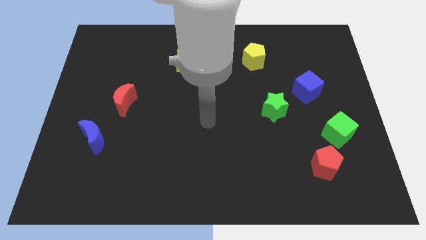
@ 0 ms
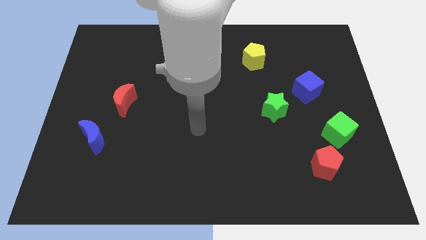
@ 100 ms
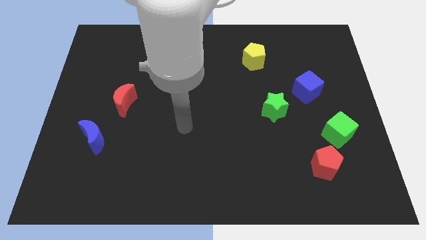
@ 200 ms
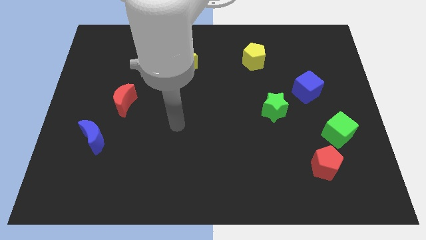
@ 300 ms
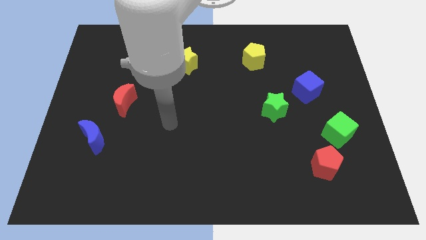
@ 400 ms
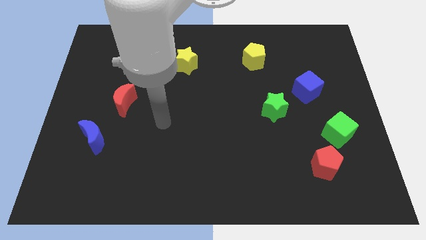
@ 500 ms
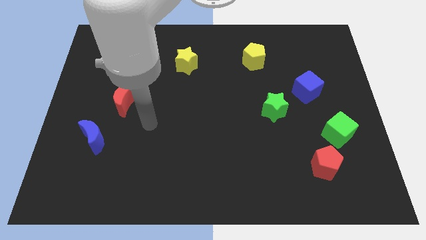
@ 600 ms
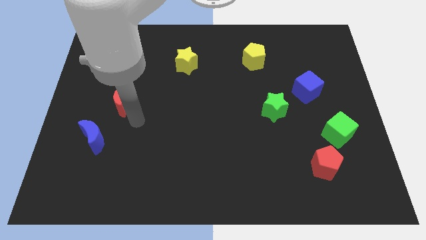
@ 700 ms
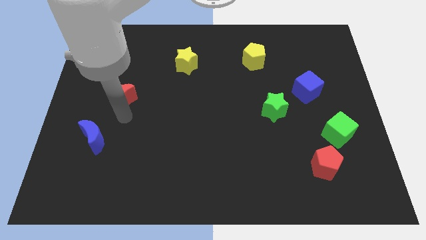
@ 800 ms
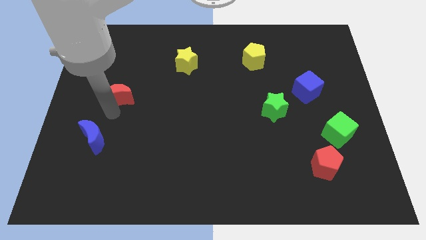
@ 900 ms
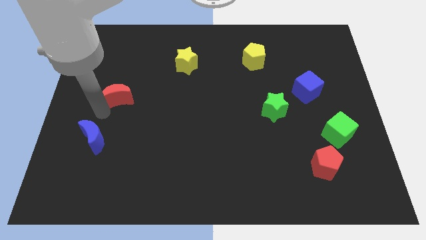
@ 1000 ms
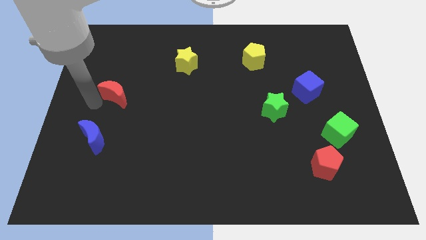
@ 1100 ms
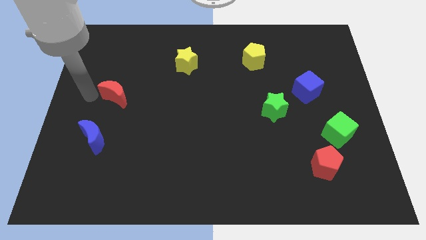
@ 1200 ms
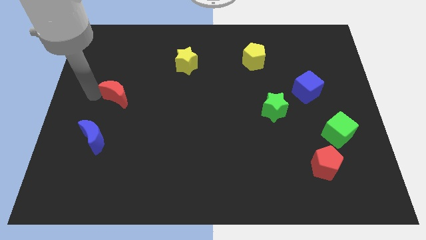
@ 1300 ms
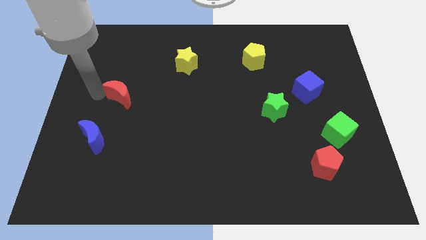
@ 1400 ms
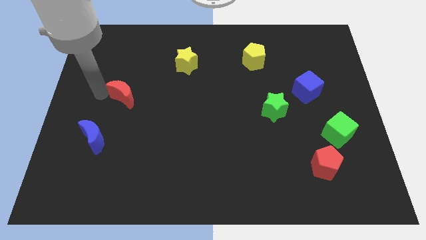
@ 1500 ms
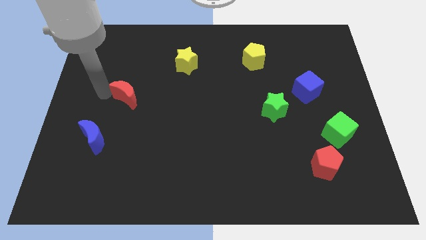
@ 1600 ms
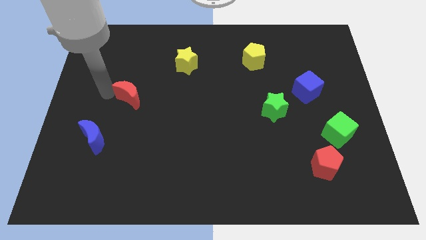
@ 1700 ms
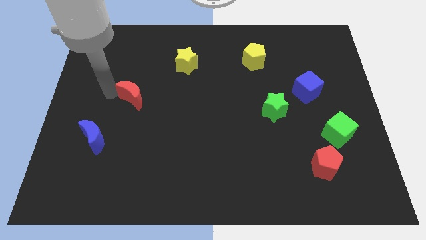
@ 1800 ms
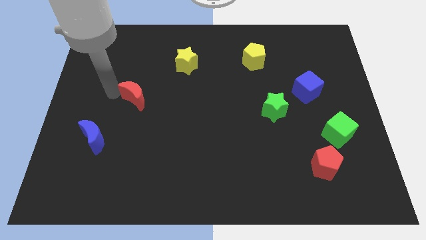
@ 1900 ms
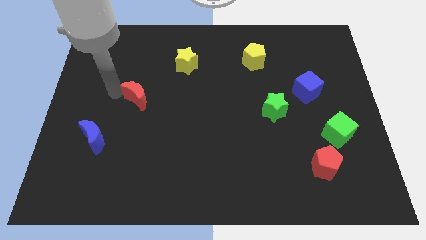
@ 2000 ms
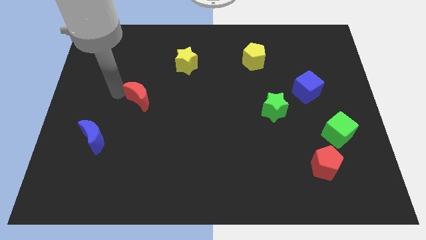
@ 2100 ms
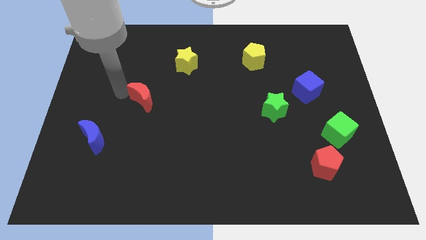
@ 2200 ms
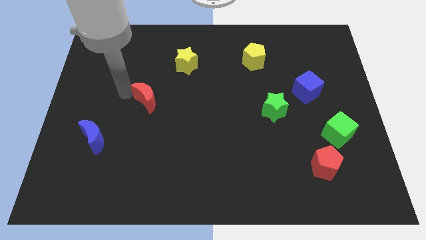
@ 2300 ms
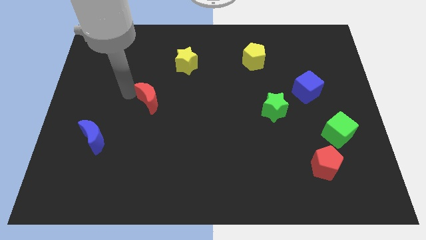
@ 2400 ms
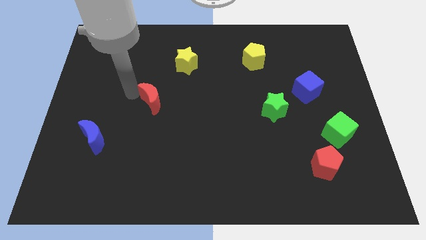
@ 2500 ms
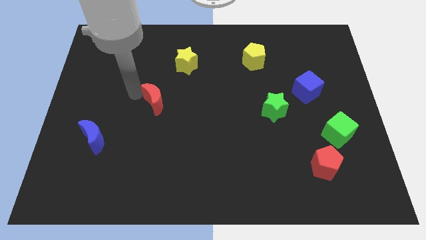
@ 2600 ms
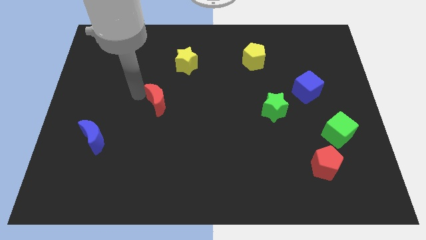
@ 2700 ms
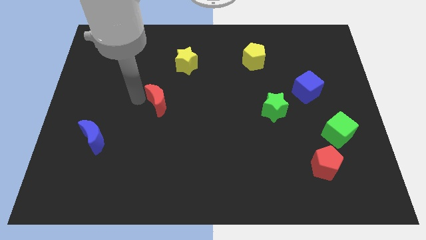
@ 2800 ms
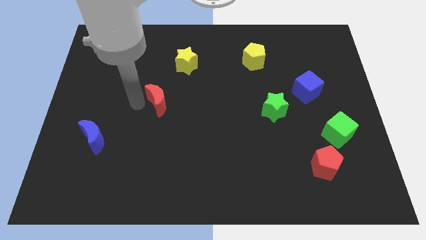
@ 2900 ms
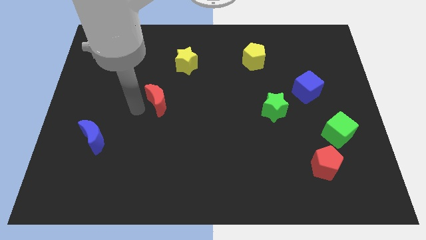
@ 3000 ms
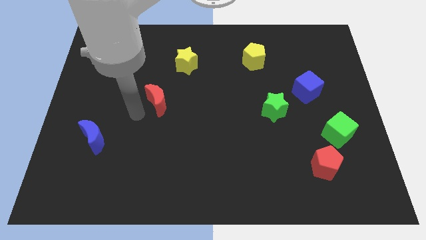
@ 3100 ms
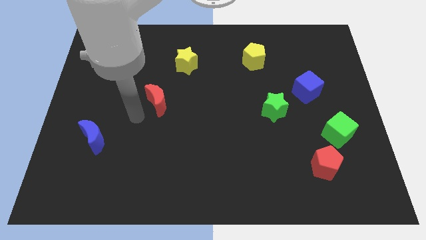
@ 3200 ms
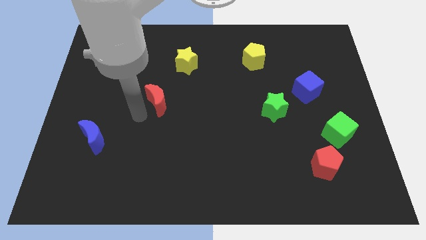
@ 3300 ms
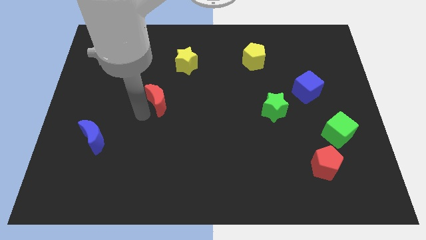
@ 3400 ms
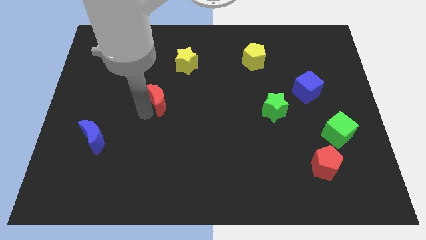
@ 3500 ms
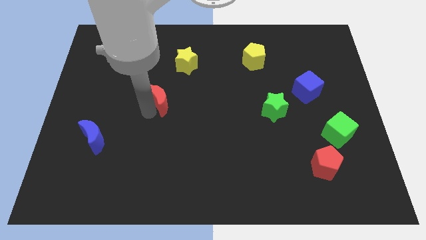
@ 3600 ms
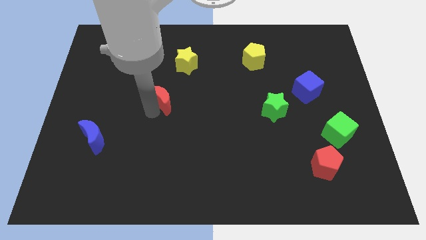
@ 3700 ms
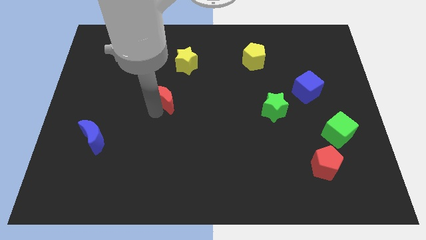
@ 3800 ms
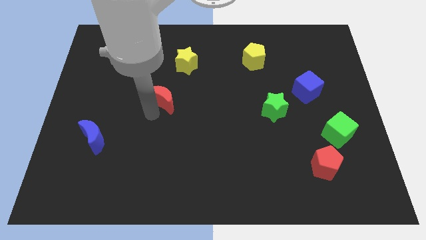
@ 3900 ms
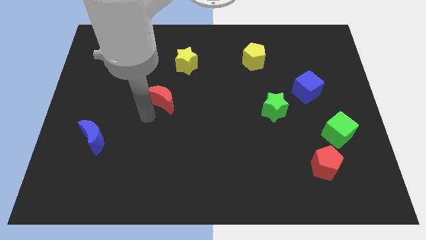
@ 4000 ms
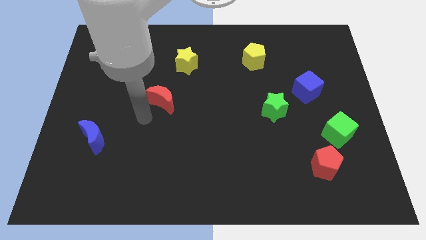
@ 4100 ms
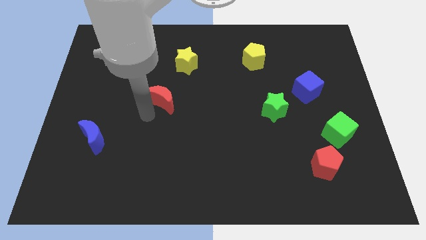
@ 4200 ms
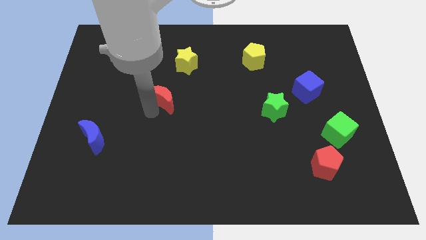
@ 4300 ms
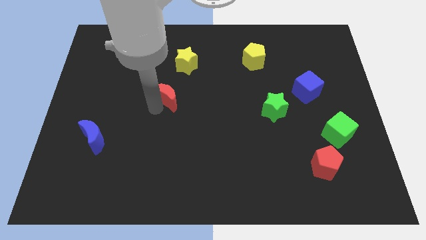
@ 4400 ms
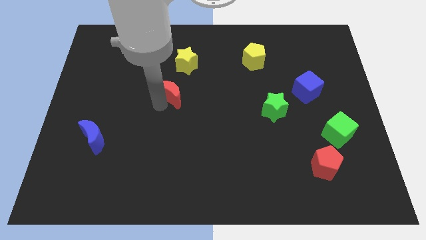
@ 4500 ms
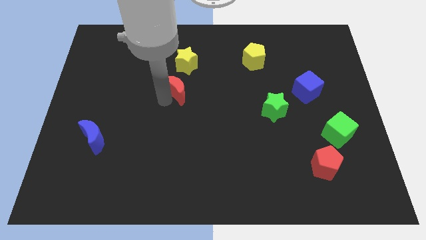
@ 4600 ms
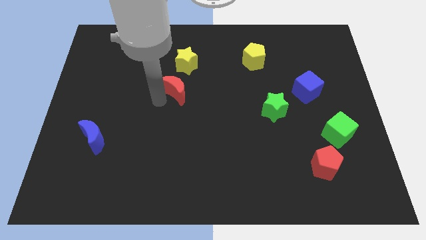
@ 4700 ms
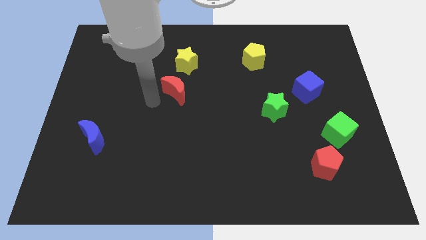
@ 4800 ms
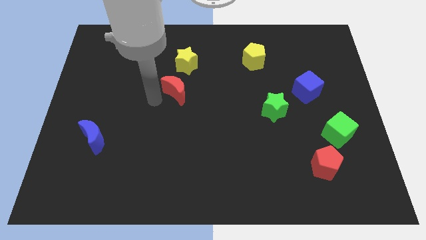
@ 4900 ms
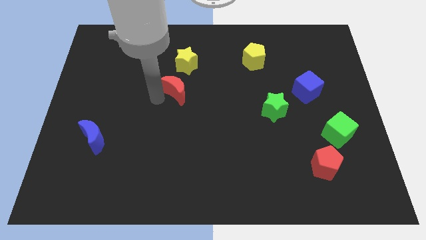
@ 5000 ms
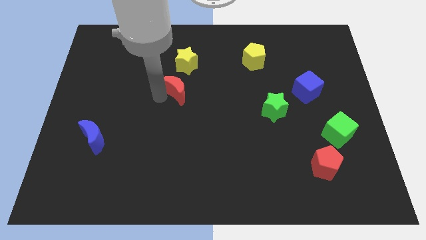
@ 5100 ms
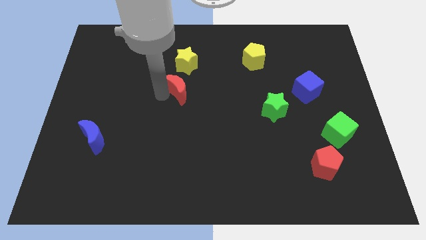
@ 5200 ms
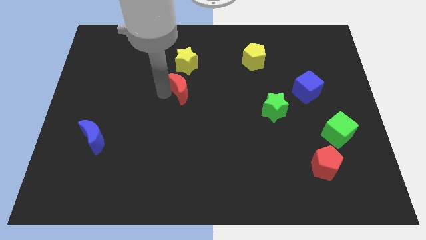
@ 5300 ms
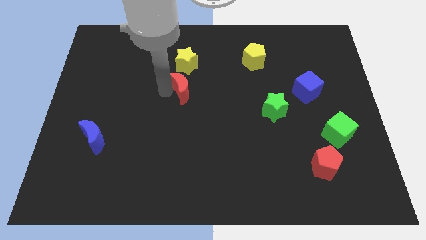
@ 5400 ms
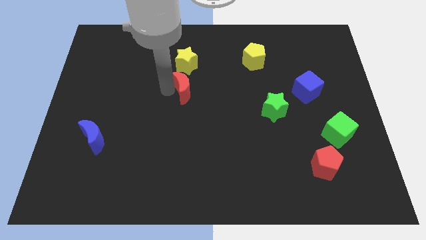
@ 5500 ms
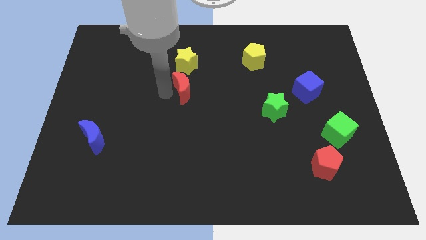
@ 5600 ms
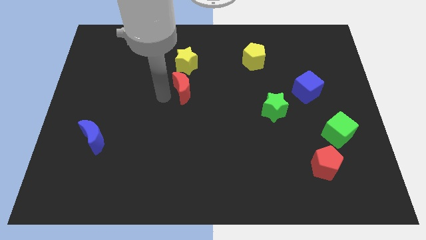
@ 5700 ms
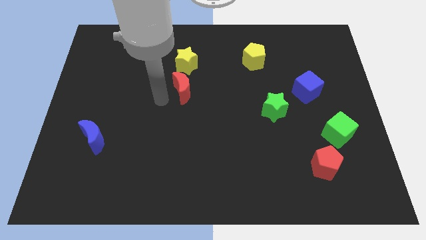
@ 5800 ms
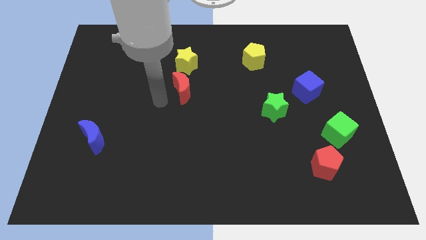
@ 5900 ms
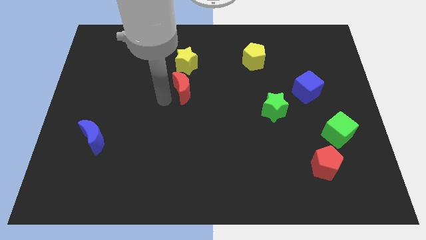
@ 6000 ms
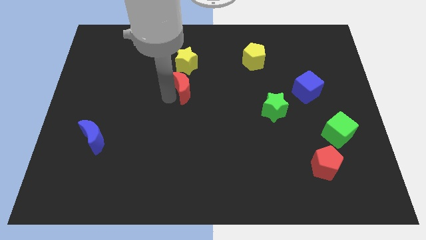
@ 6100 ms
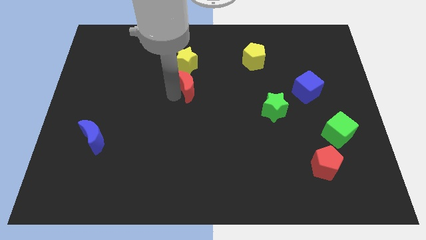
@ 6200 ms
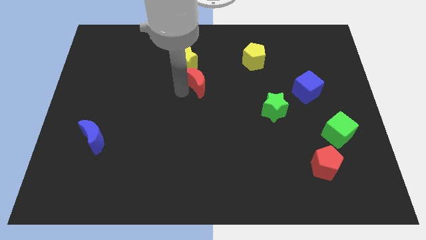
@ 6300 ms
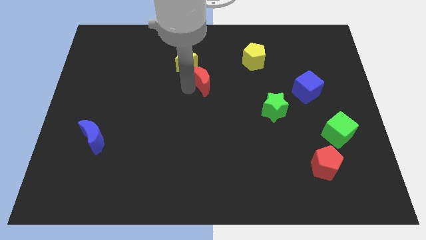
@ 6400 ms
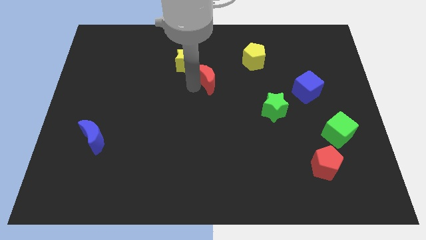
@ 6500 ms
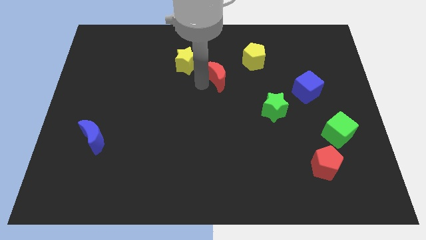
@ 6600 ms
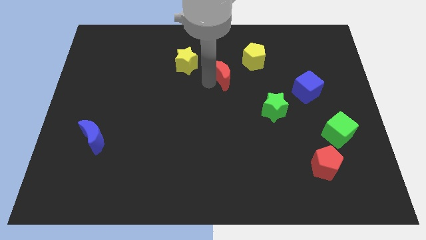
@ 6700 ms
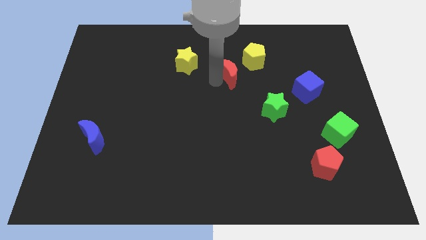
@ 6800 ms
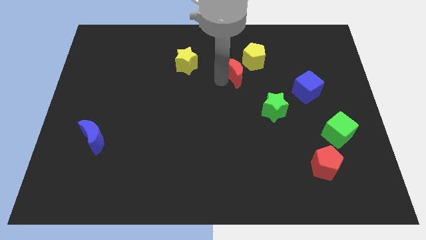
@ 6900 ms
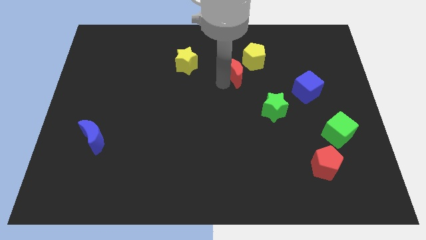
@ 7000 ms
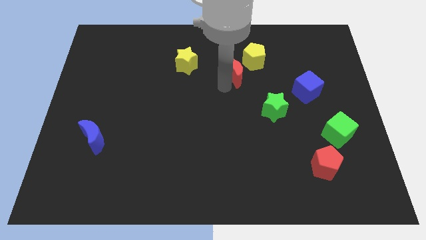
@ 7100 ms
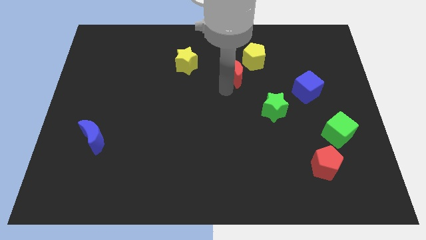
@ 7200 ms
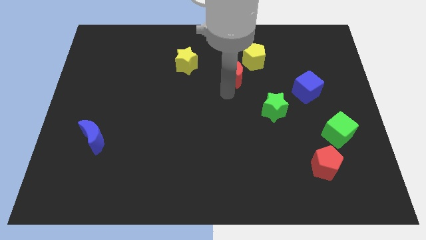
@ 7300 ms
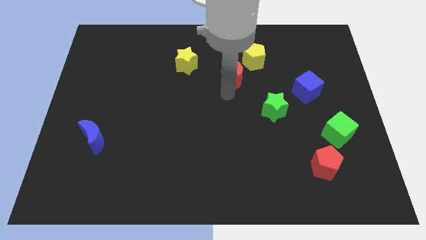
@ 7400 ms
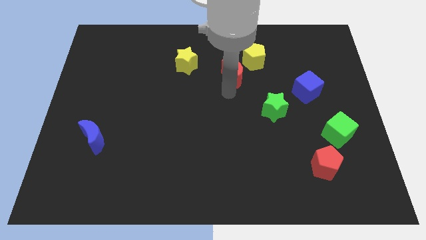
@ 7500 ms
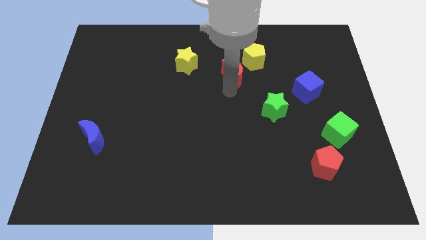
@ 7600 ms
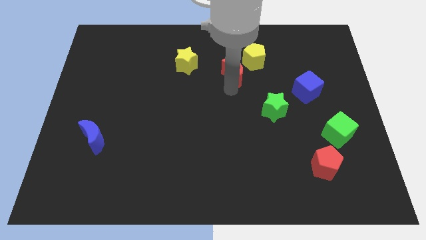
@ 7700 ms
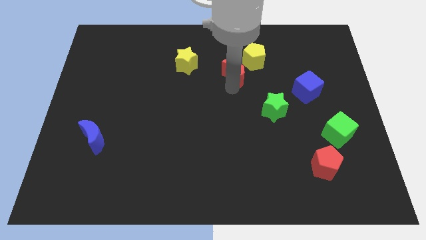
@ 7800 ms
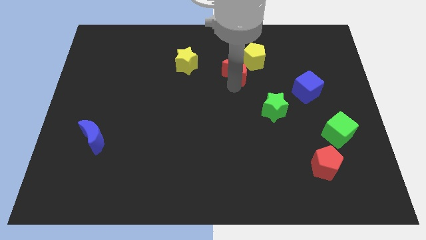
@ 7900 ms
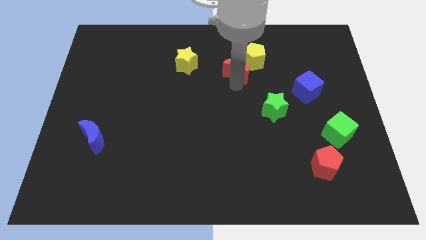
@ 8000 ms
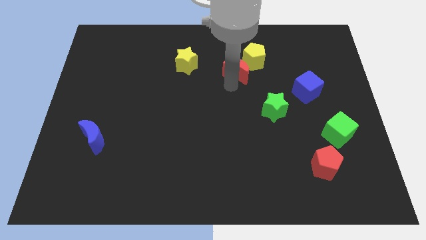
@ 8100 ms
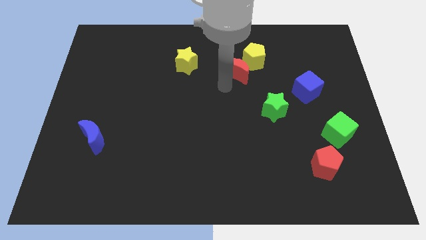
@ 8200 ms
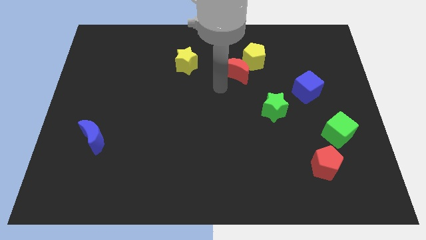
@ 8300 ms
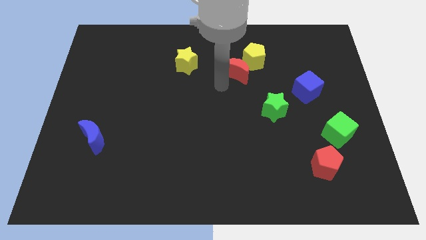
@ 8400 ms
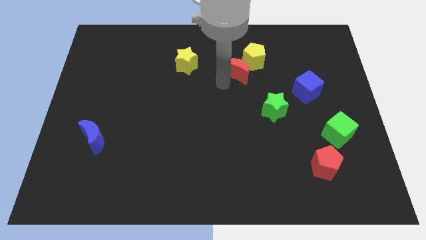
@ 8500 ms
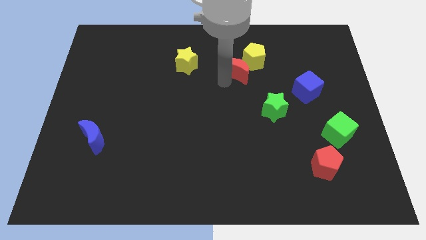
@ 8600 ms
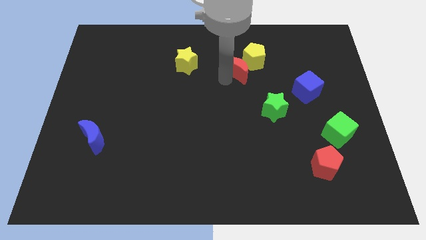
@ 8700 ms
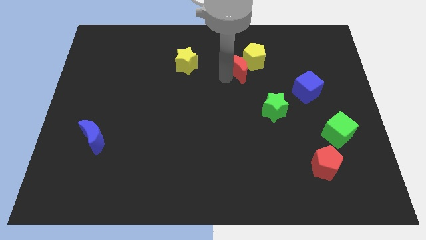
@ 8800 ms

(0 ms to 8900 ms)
put the red moon to the yellow pentagon
